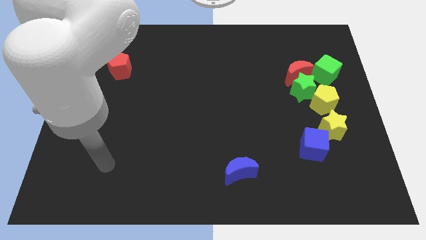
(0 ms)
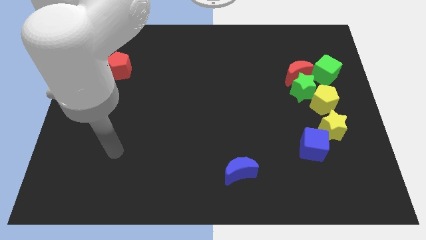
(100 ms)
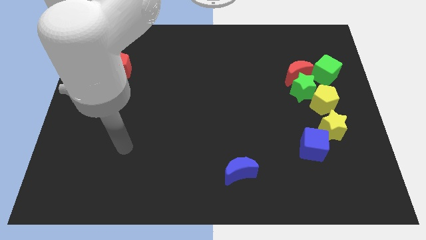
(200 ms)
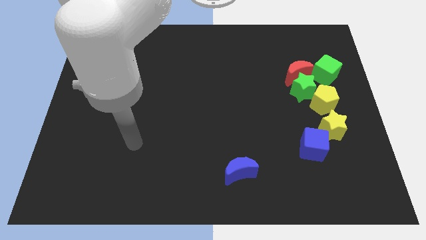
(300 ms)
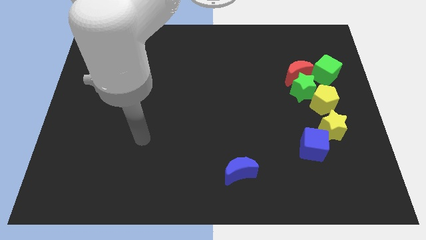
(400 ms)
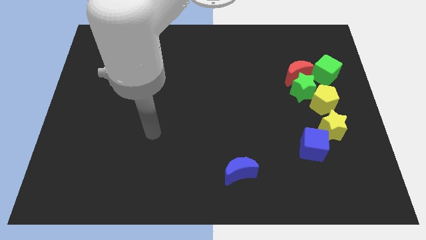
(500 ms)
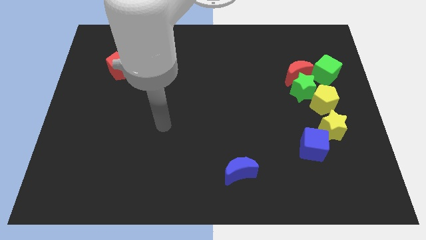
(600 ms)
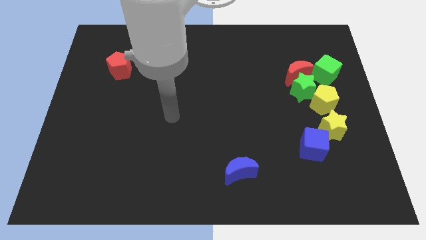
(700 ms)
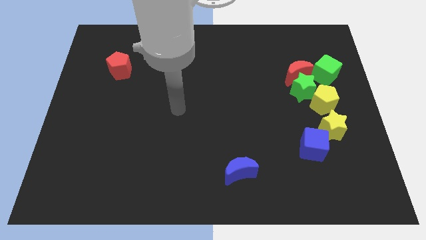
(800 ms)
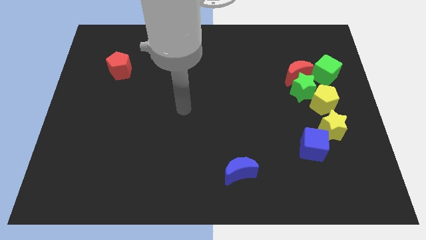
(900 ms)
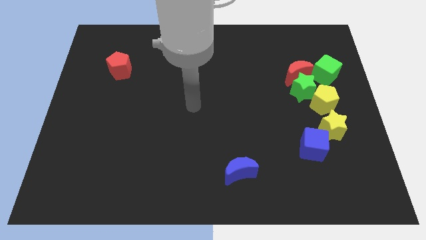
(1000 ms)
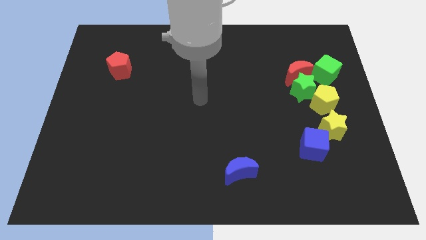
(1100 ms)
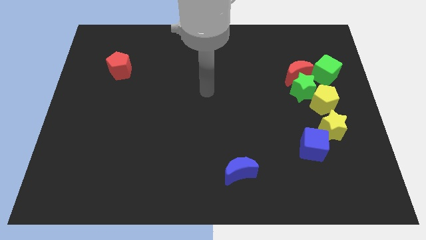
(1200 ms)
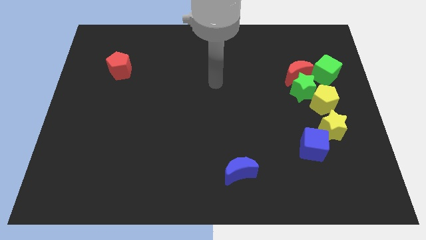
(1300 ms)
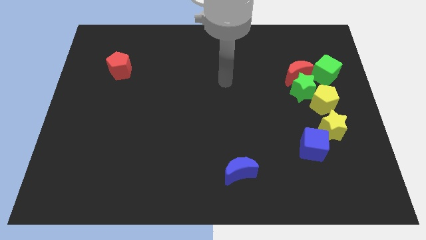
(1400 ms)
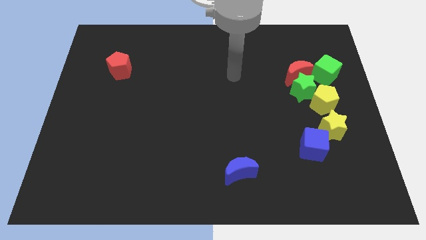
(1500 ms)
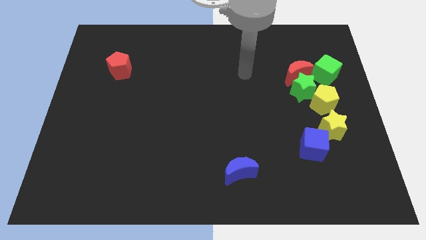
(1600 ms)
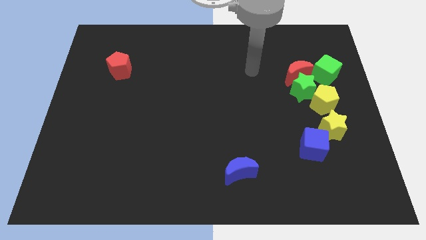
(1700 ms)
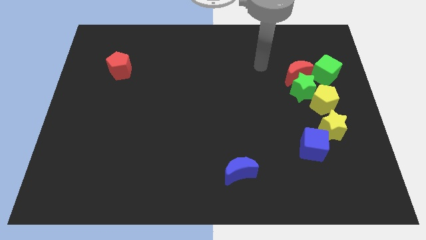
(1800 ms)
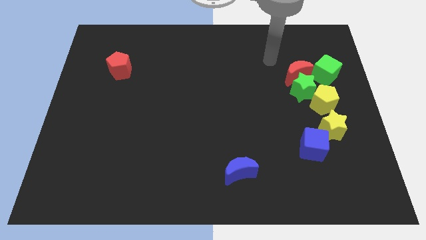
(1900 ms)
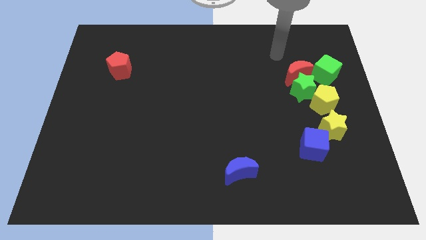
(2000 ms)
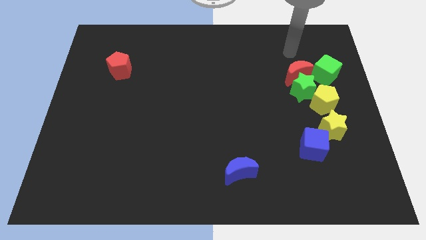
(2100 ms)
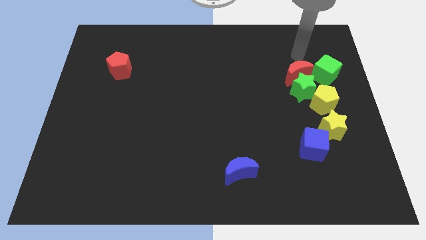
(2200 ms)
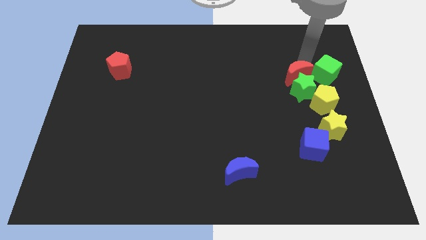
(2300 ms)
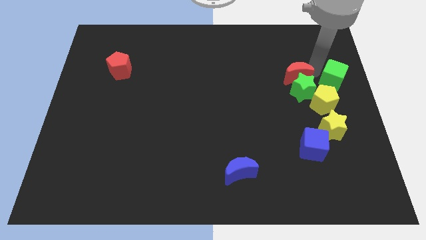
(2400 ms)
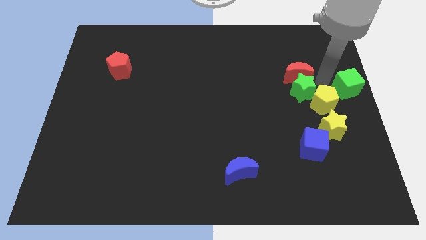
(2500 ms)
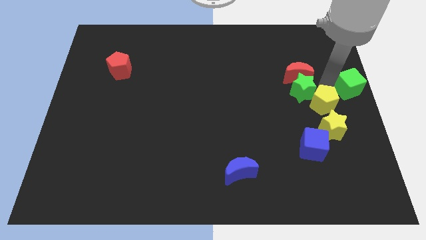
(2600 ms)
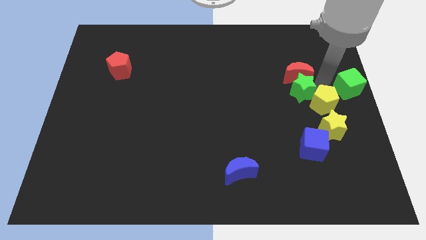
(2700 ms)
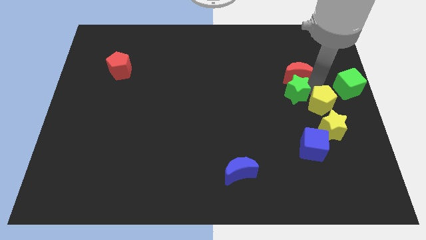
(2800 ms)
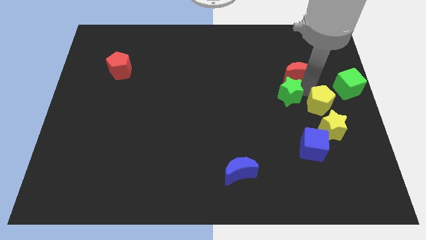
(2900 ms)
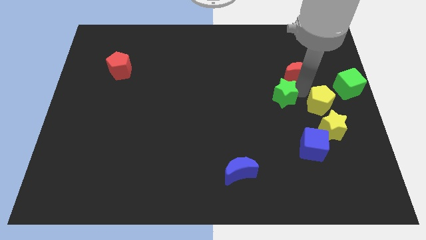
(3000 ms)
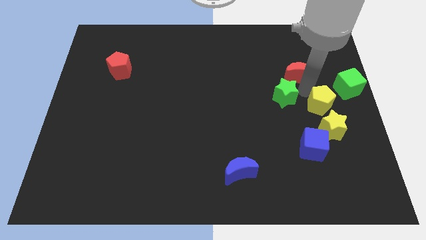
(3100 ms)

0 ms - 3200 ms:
pull the green star apart from the group

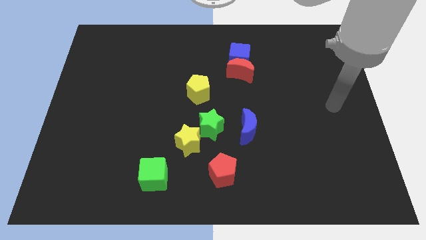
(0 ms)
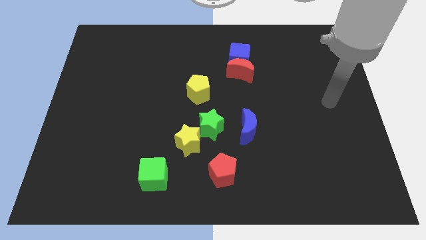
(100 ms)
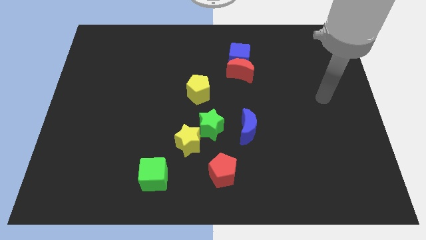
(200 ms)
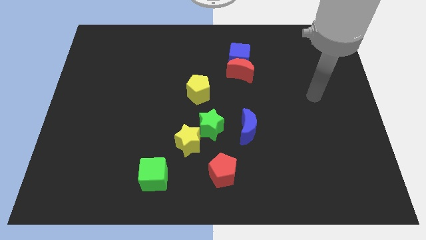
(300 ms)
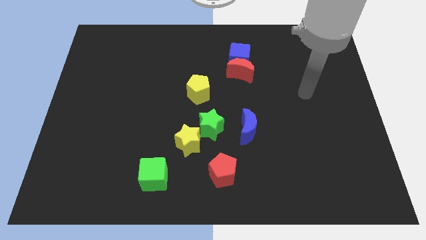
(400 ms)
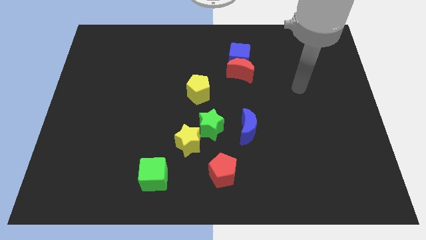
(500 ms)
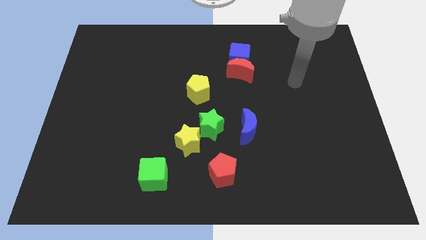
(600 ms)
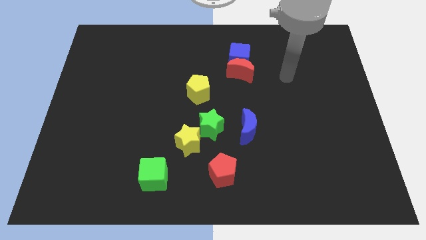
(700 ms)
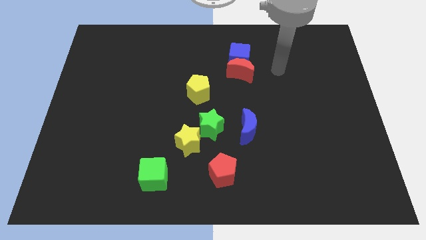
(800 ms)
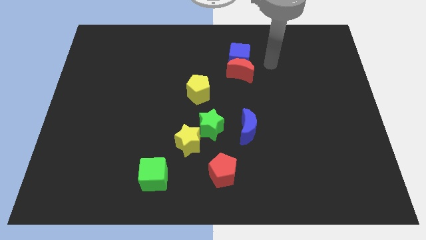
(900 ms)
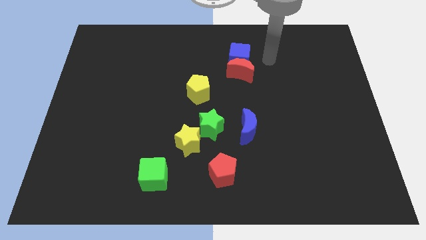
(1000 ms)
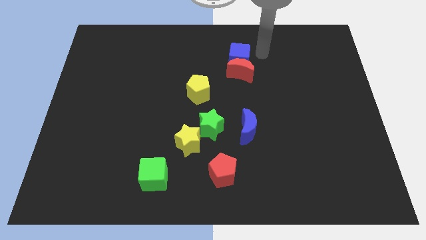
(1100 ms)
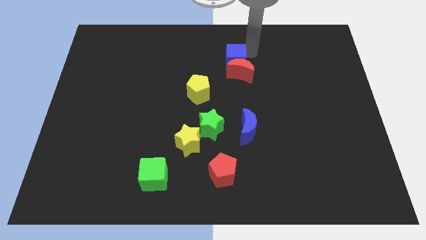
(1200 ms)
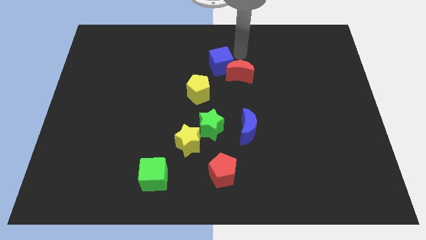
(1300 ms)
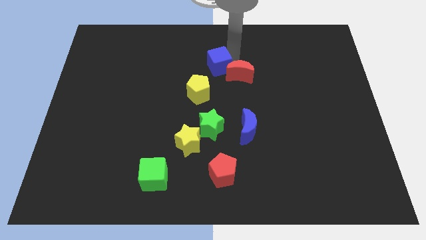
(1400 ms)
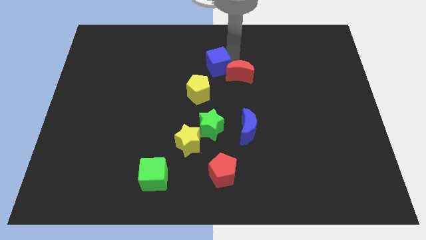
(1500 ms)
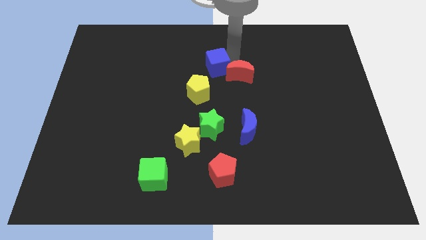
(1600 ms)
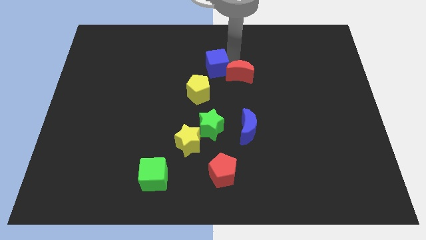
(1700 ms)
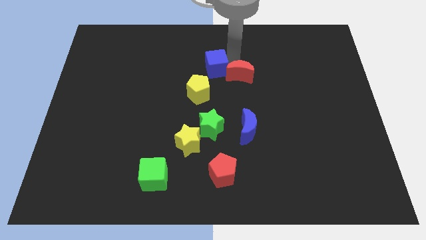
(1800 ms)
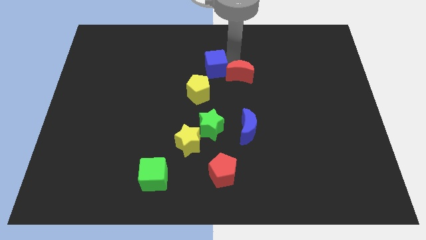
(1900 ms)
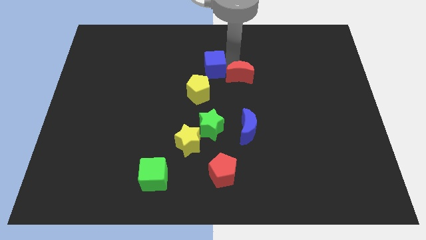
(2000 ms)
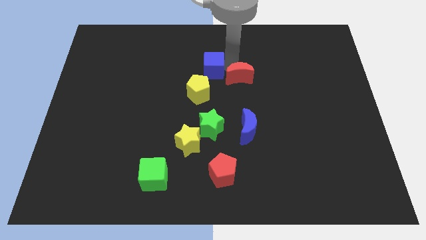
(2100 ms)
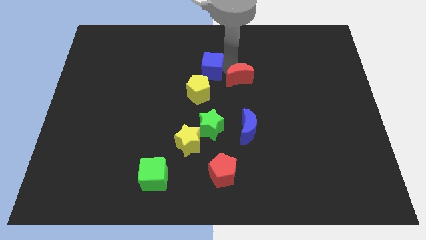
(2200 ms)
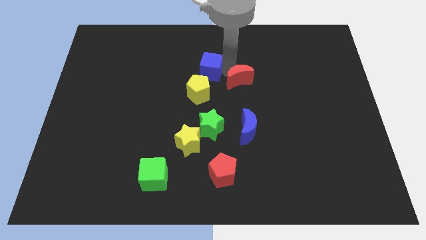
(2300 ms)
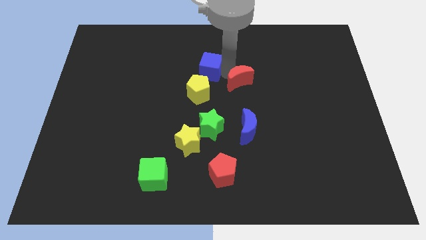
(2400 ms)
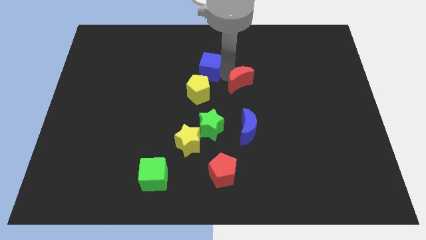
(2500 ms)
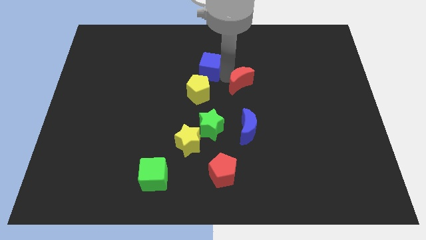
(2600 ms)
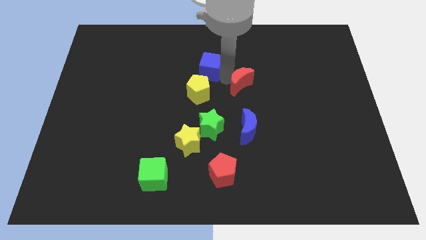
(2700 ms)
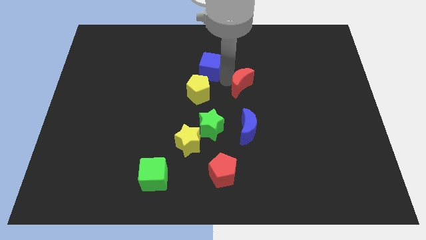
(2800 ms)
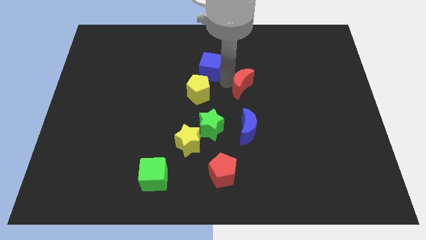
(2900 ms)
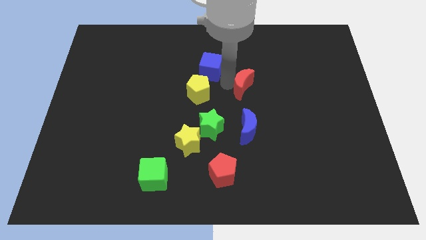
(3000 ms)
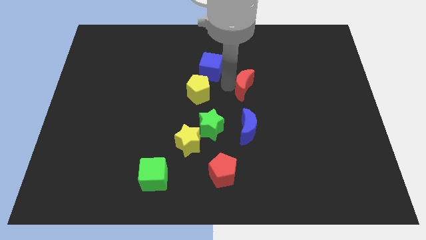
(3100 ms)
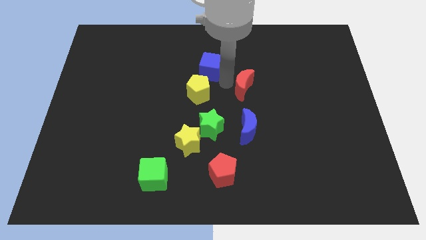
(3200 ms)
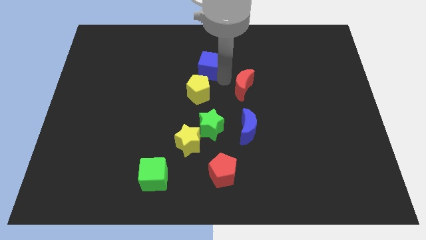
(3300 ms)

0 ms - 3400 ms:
move the red moon away from the blue cube

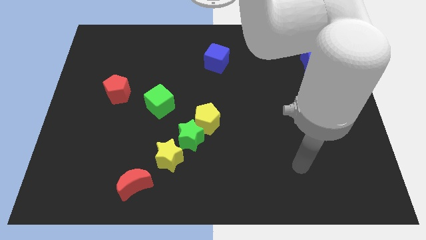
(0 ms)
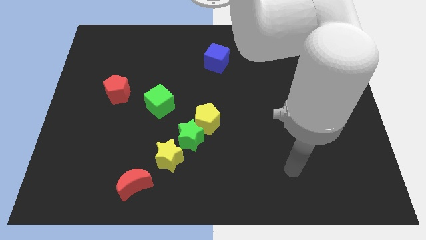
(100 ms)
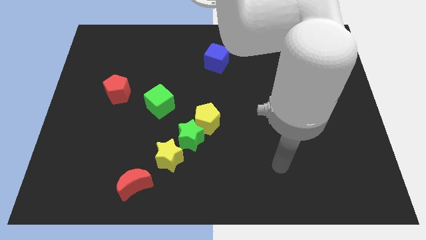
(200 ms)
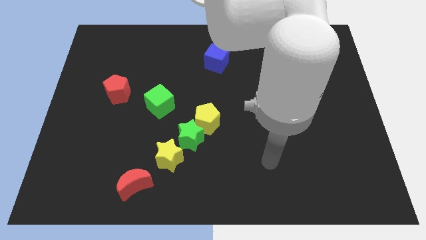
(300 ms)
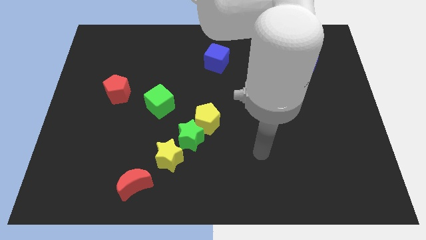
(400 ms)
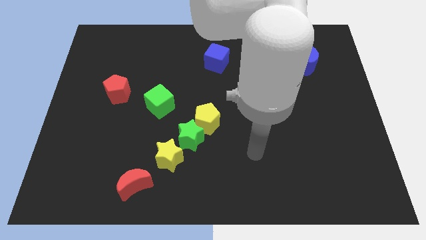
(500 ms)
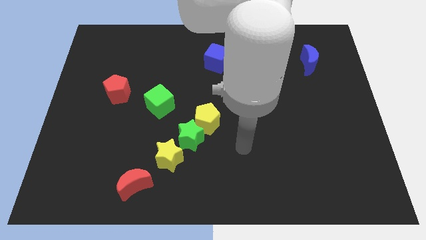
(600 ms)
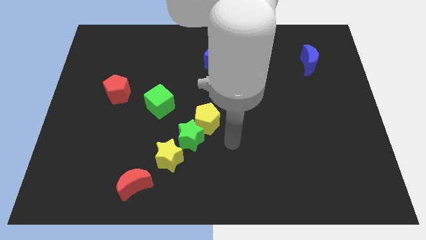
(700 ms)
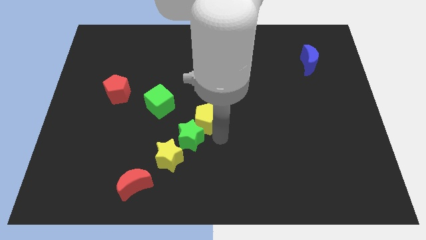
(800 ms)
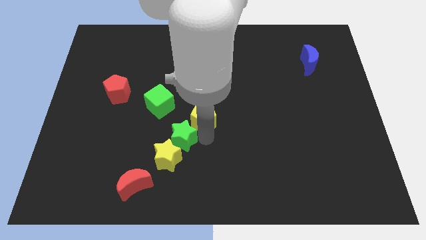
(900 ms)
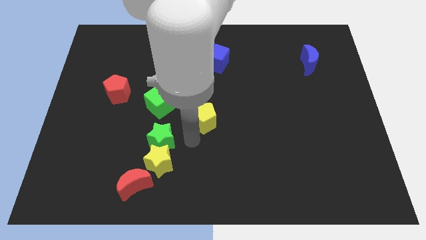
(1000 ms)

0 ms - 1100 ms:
move the yellow pentagon away from the green star

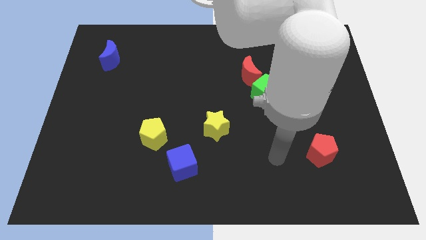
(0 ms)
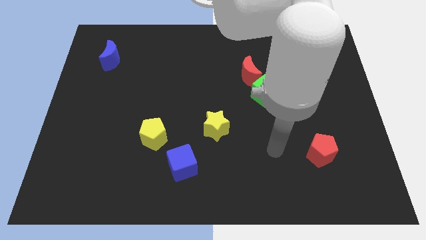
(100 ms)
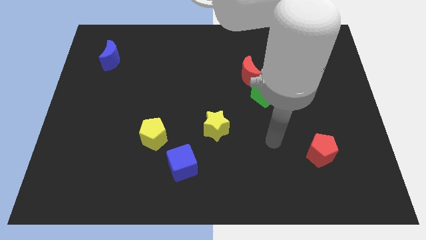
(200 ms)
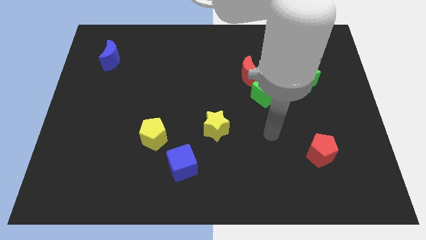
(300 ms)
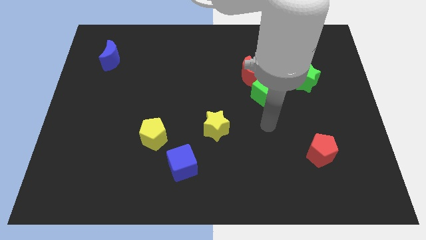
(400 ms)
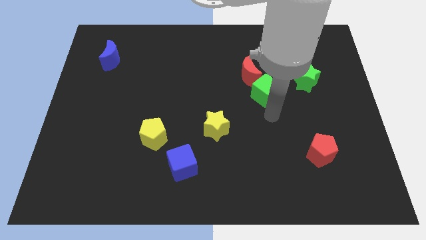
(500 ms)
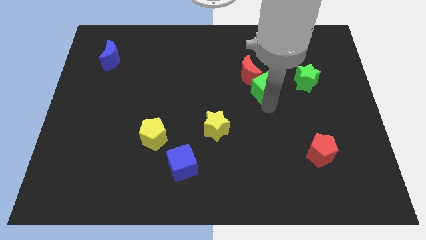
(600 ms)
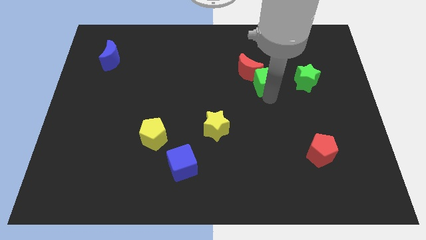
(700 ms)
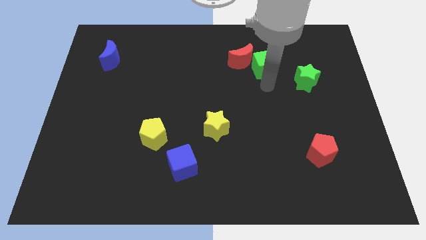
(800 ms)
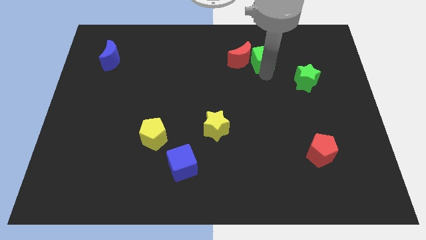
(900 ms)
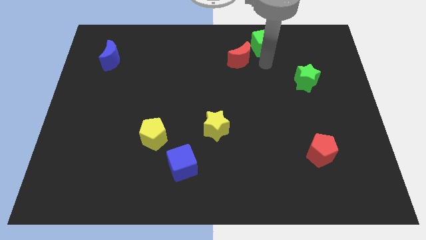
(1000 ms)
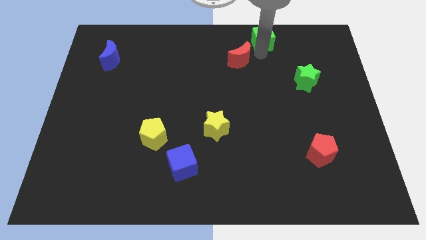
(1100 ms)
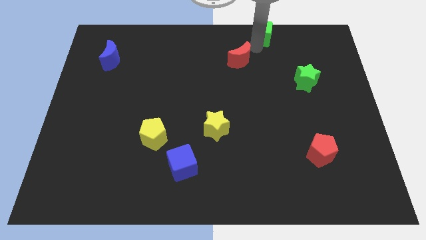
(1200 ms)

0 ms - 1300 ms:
separate the red moon from the green cube

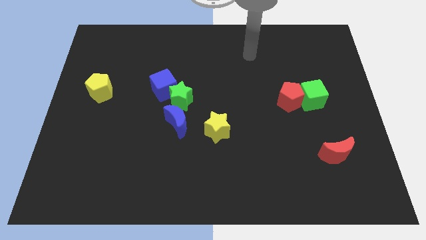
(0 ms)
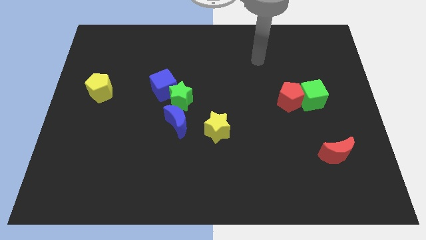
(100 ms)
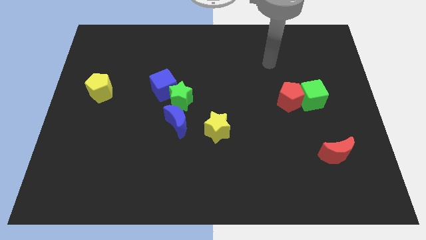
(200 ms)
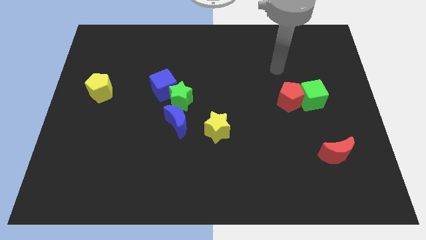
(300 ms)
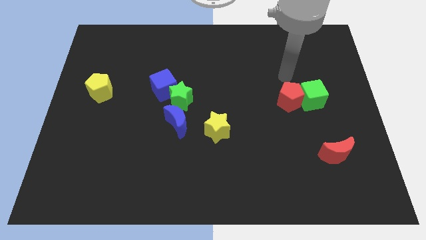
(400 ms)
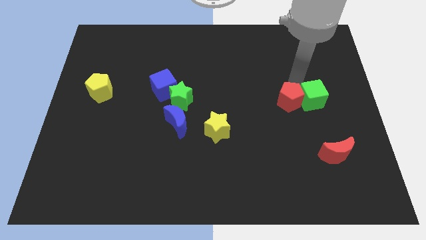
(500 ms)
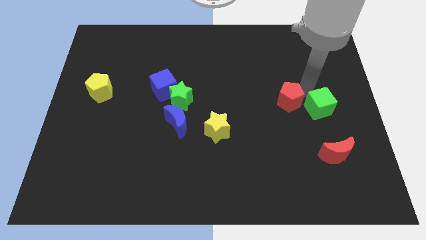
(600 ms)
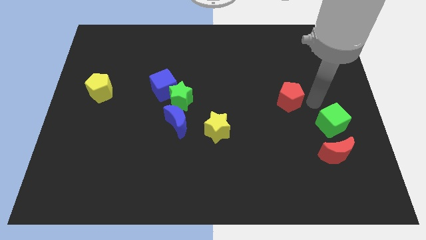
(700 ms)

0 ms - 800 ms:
separate the red pentagon from the green cube
